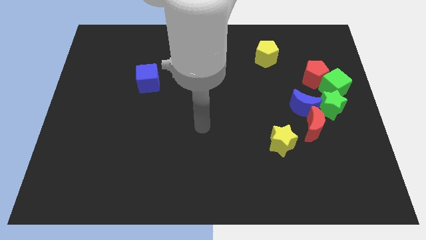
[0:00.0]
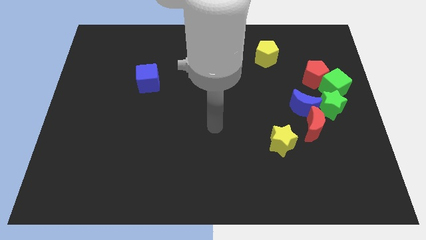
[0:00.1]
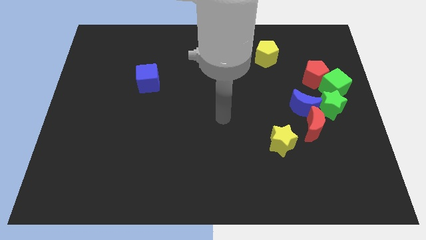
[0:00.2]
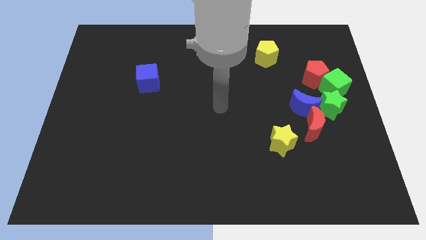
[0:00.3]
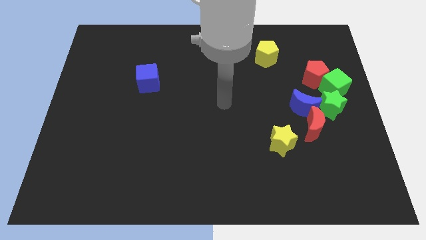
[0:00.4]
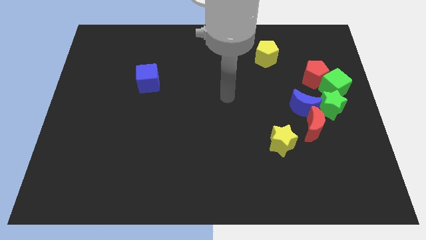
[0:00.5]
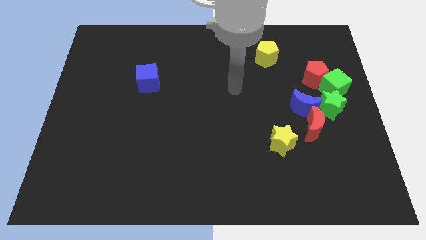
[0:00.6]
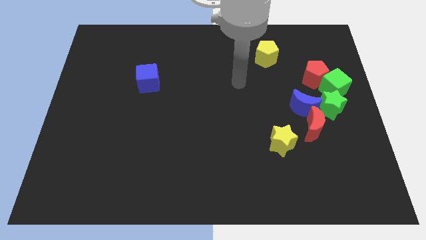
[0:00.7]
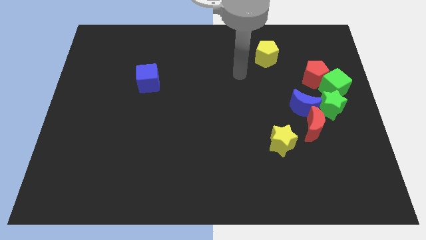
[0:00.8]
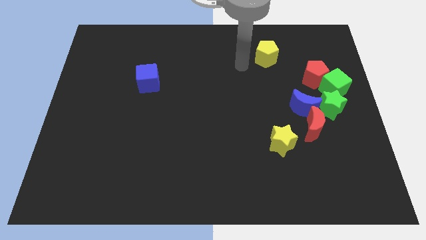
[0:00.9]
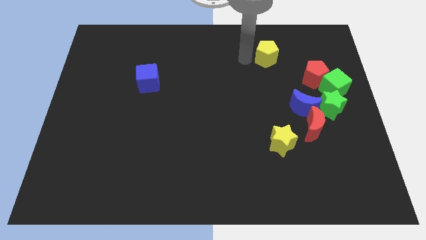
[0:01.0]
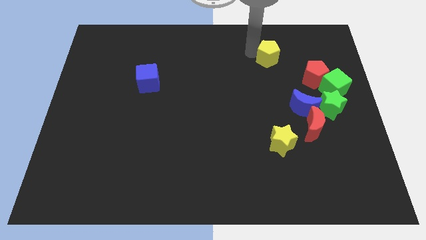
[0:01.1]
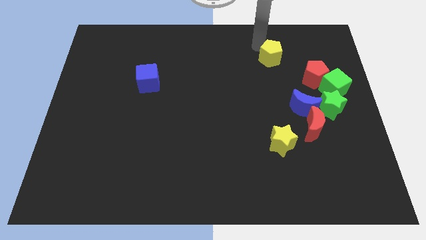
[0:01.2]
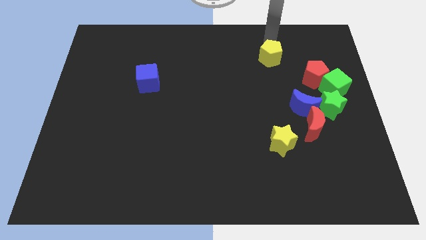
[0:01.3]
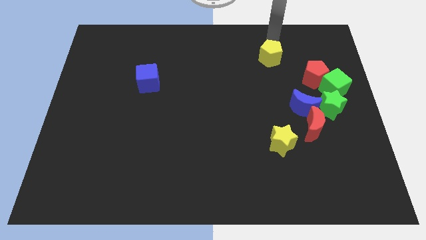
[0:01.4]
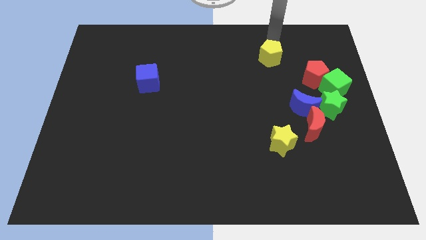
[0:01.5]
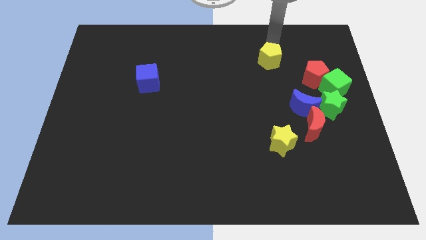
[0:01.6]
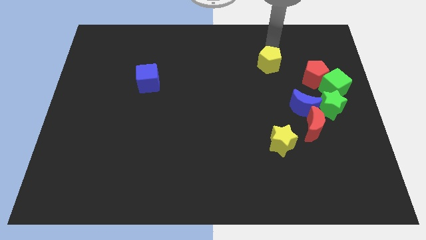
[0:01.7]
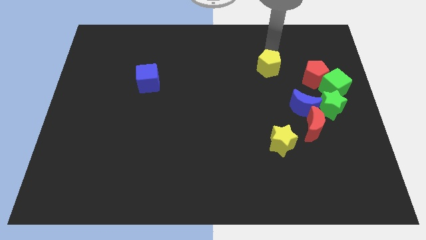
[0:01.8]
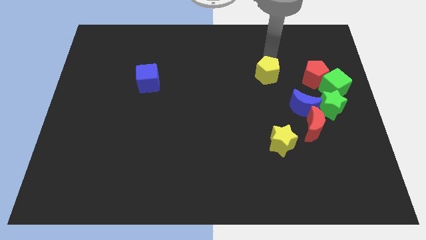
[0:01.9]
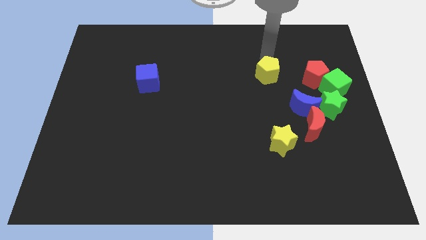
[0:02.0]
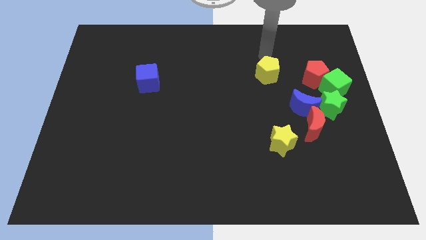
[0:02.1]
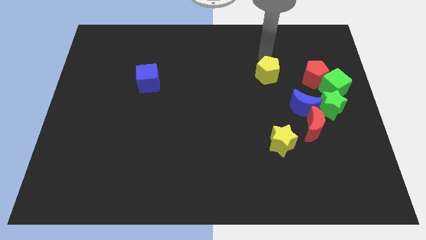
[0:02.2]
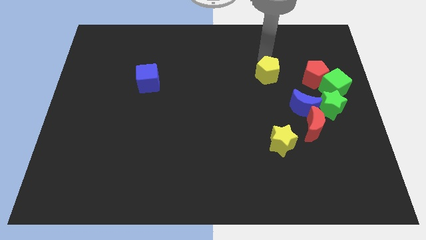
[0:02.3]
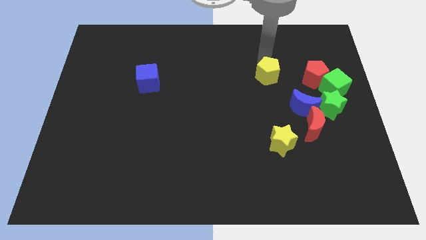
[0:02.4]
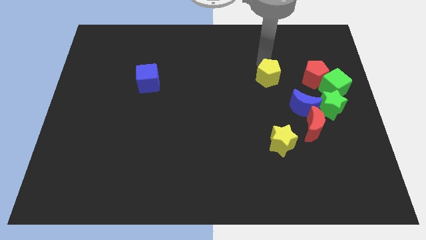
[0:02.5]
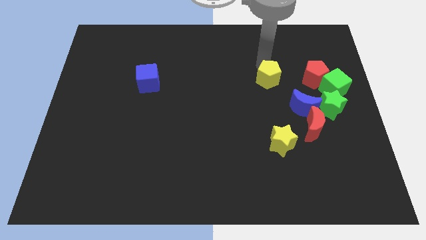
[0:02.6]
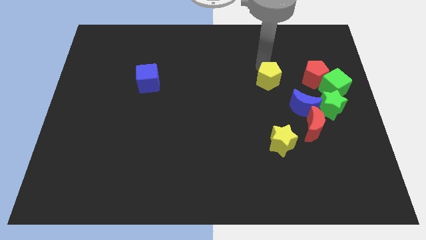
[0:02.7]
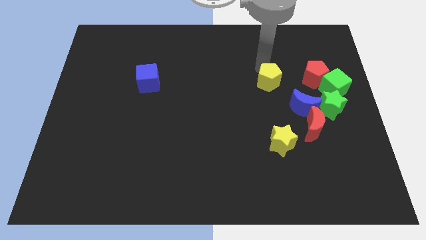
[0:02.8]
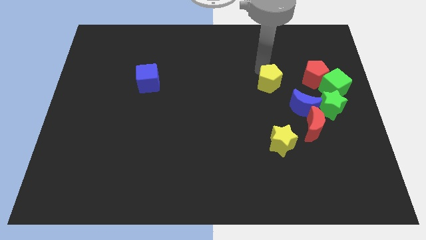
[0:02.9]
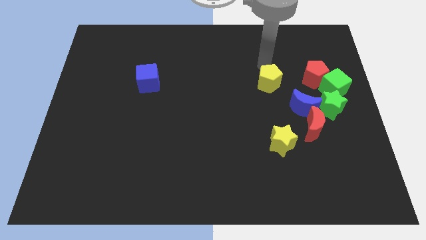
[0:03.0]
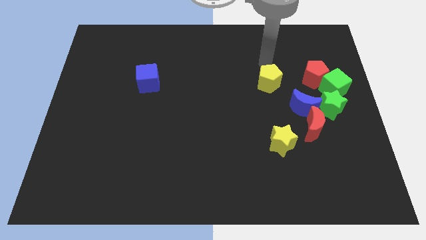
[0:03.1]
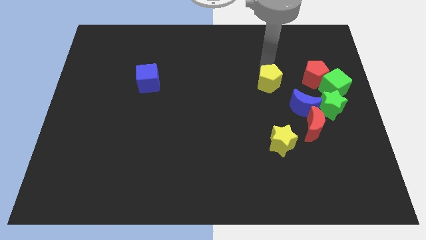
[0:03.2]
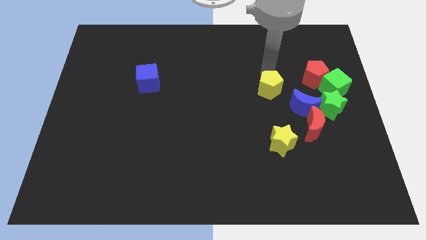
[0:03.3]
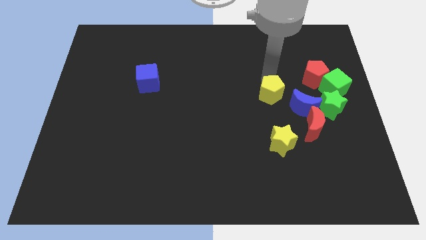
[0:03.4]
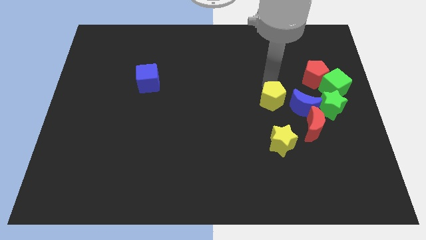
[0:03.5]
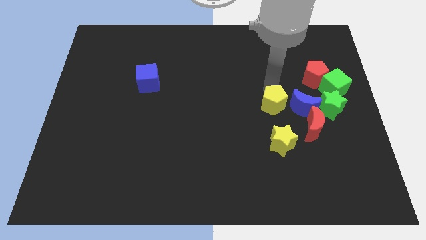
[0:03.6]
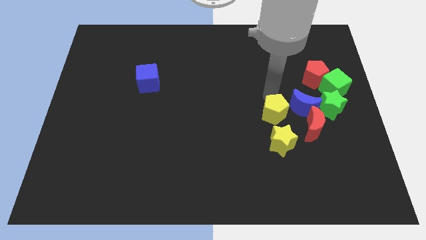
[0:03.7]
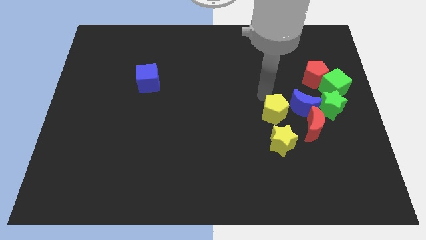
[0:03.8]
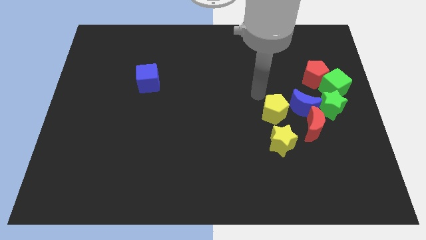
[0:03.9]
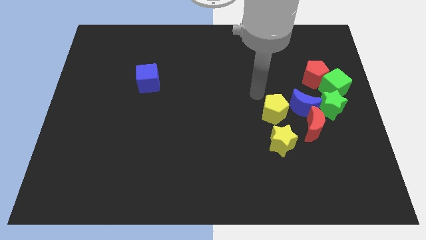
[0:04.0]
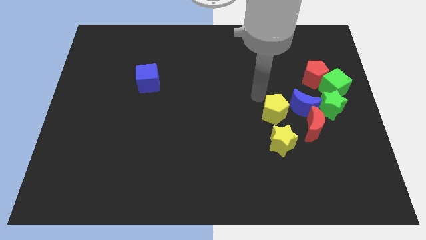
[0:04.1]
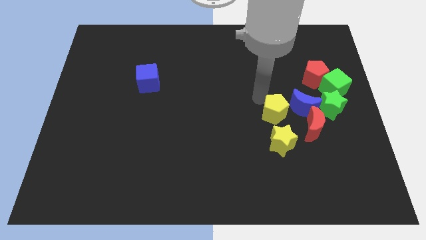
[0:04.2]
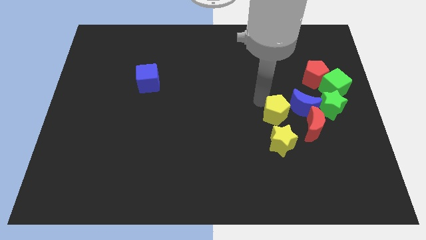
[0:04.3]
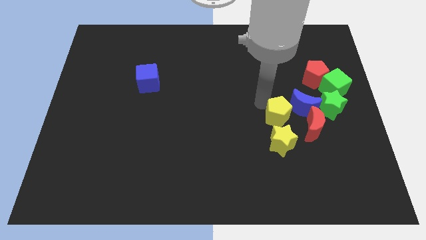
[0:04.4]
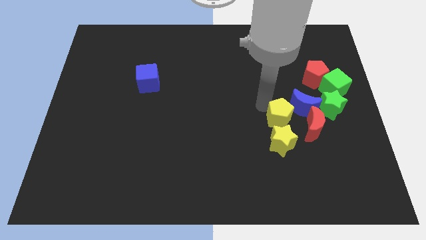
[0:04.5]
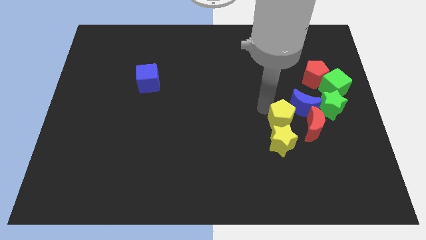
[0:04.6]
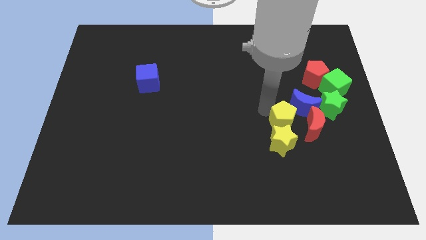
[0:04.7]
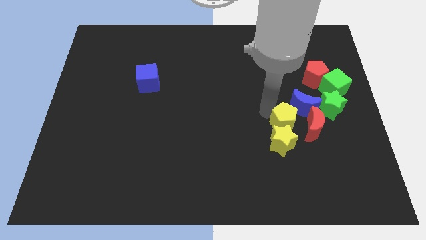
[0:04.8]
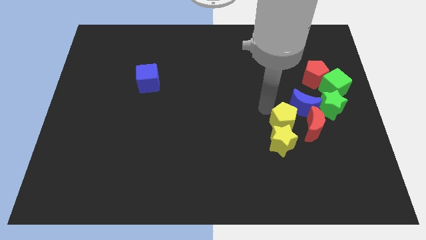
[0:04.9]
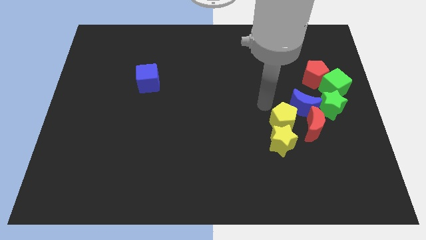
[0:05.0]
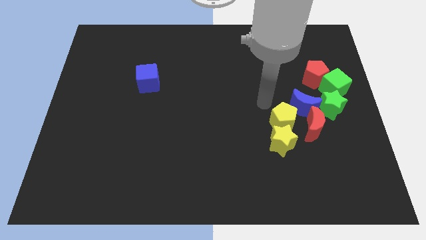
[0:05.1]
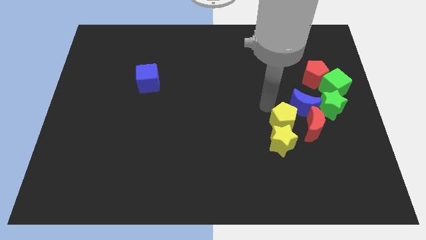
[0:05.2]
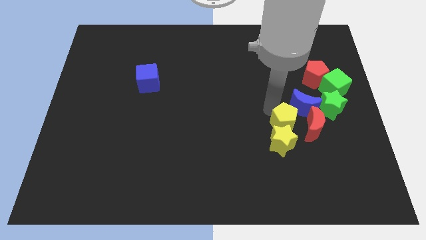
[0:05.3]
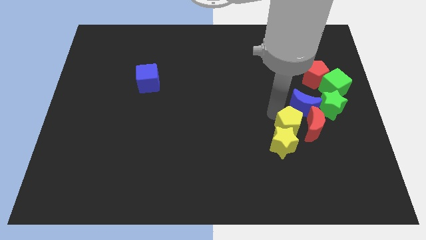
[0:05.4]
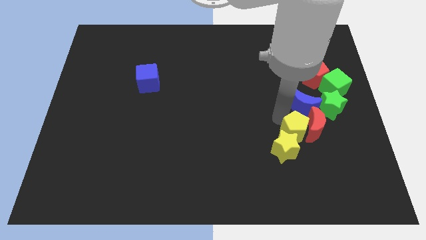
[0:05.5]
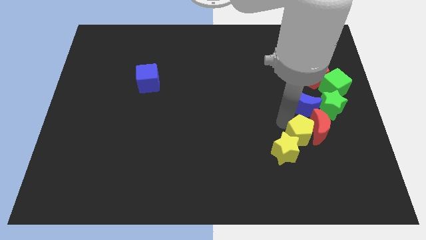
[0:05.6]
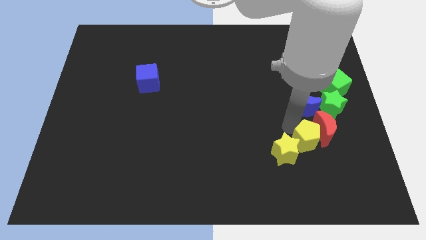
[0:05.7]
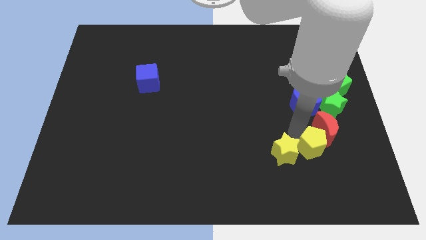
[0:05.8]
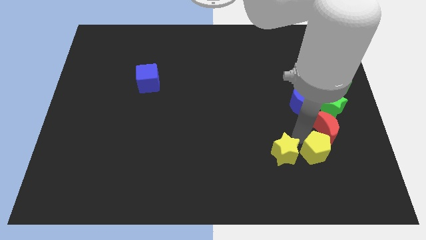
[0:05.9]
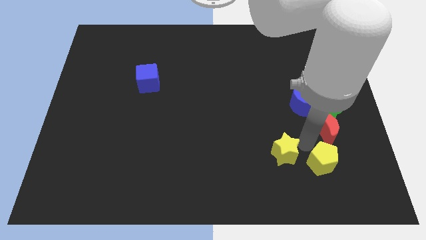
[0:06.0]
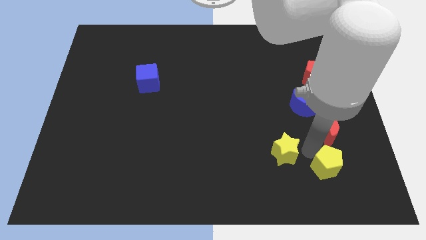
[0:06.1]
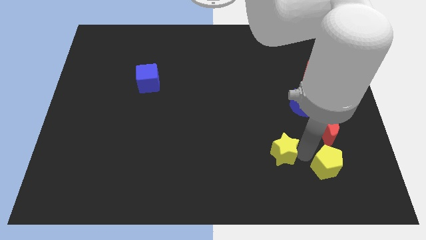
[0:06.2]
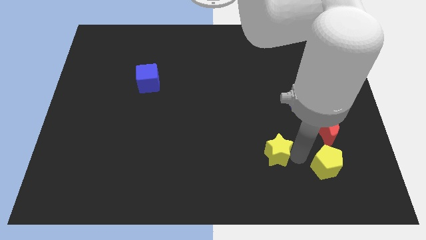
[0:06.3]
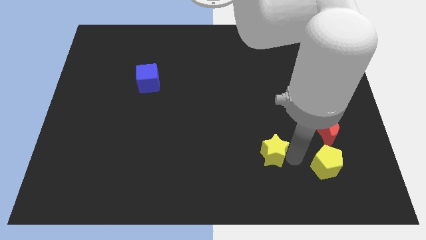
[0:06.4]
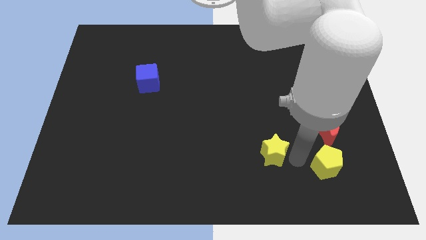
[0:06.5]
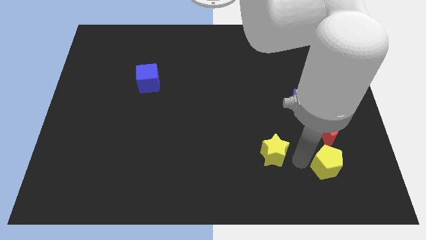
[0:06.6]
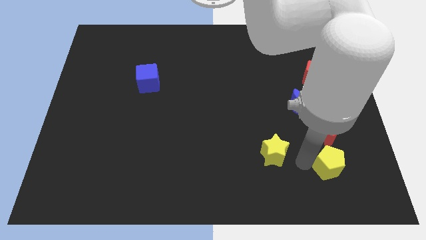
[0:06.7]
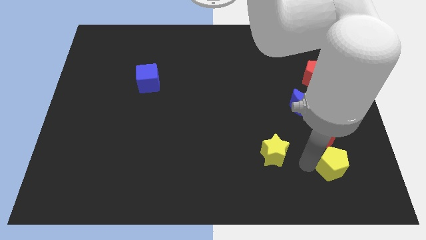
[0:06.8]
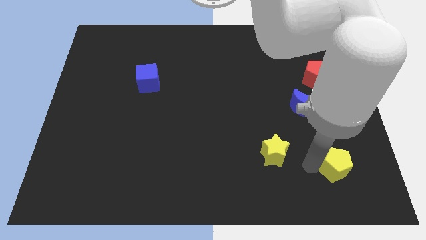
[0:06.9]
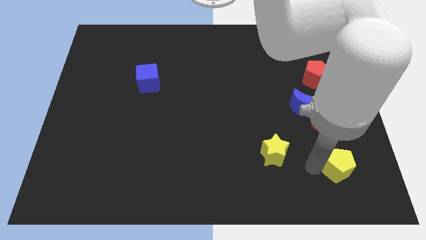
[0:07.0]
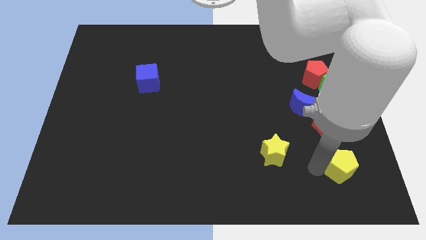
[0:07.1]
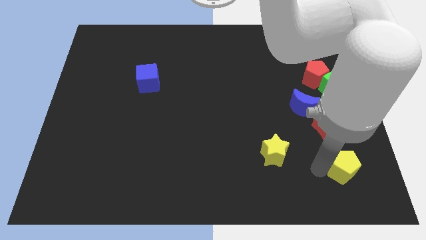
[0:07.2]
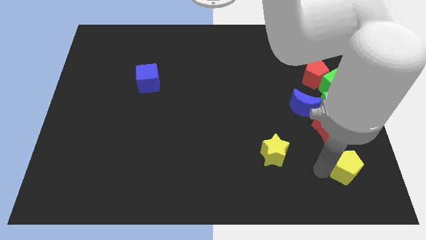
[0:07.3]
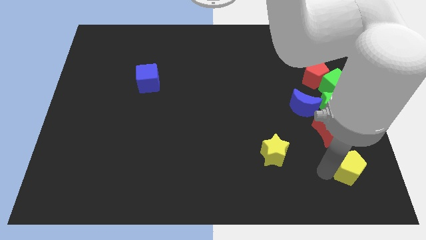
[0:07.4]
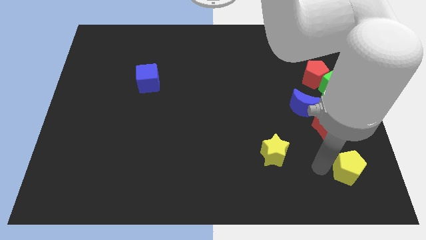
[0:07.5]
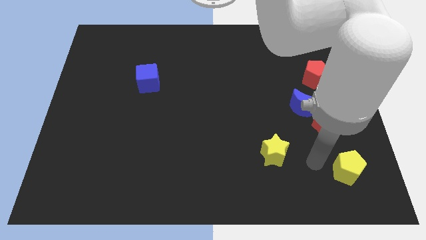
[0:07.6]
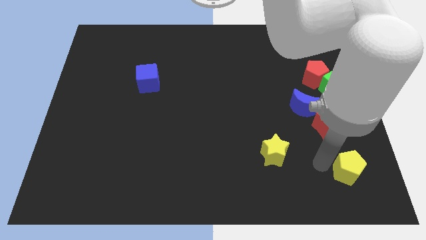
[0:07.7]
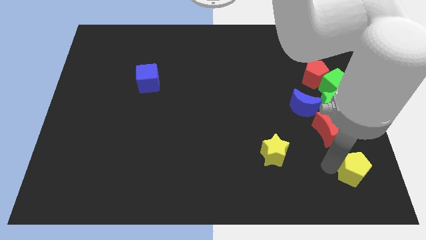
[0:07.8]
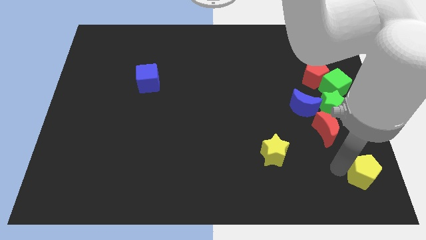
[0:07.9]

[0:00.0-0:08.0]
push the yellow pentagon to the bottom right of the board
